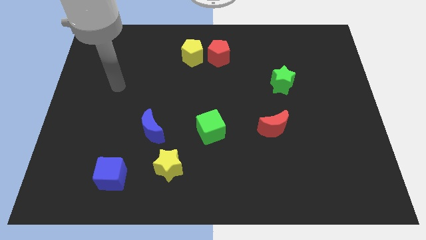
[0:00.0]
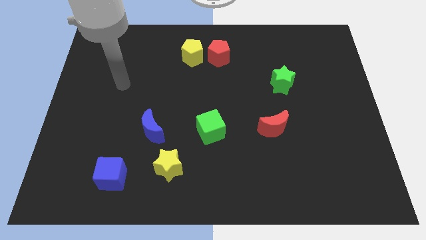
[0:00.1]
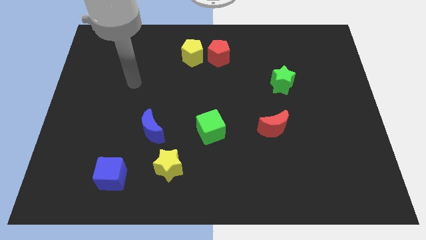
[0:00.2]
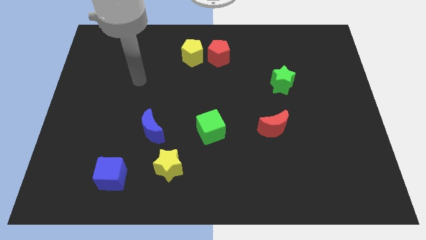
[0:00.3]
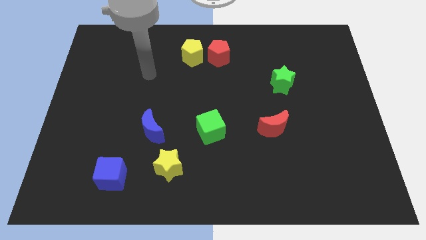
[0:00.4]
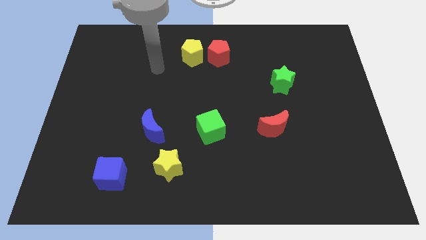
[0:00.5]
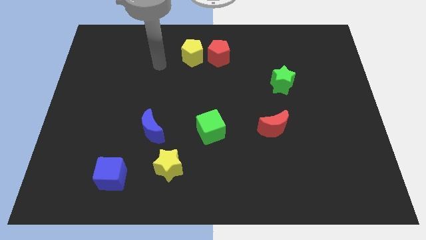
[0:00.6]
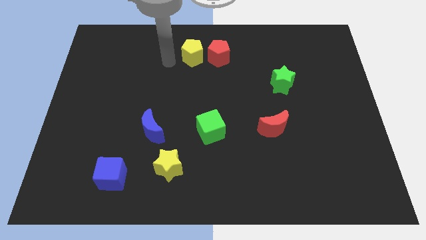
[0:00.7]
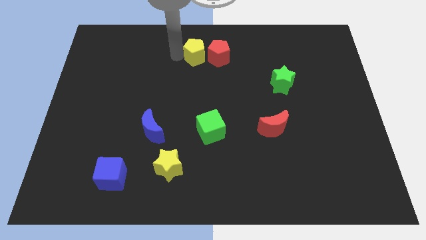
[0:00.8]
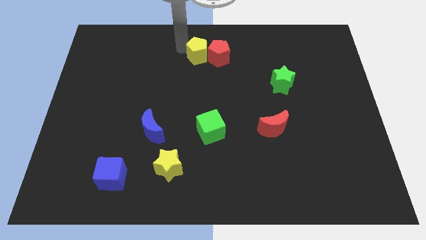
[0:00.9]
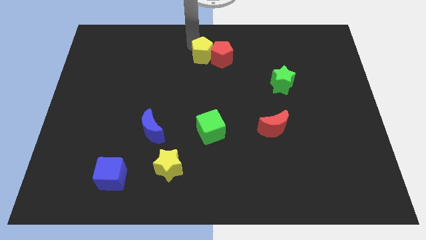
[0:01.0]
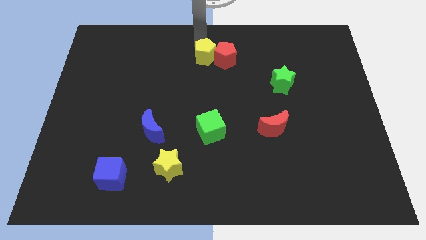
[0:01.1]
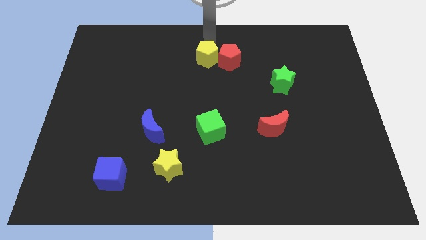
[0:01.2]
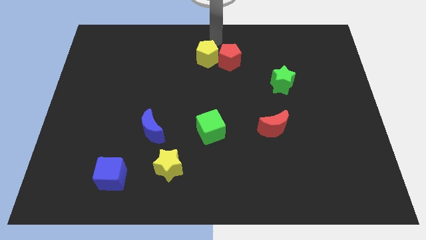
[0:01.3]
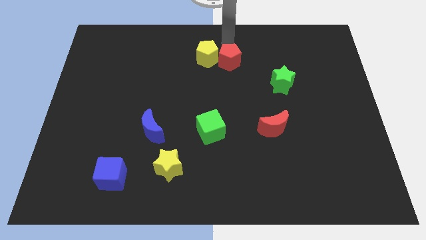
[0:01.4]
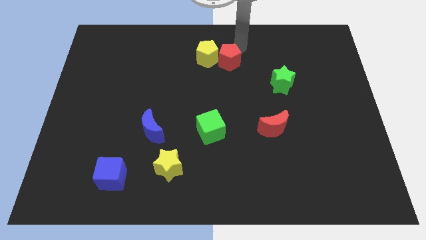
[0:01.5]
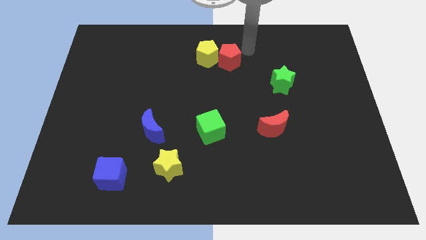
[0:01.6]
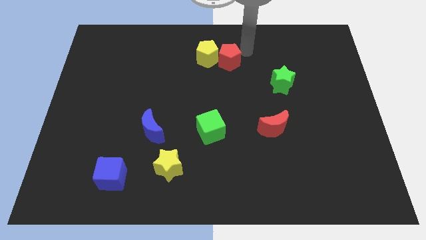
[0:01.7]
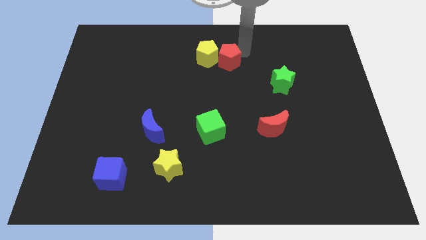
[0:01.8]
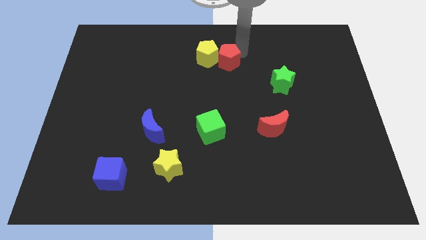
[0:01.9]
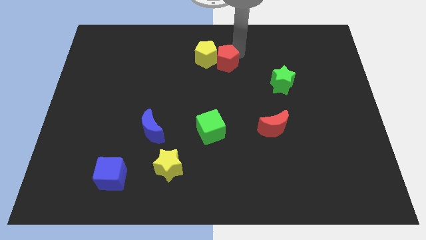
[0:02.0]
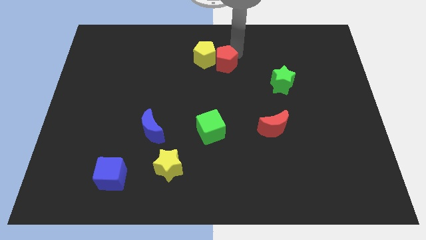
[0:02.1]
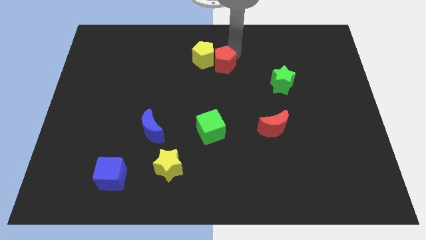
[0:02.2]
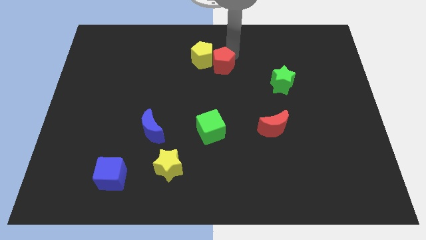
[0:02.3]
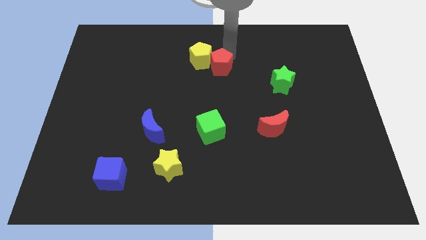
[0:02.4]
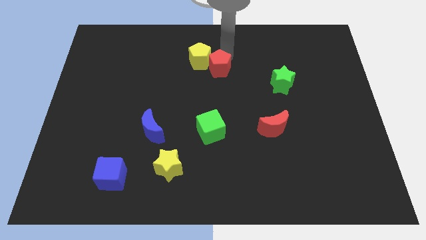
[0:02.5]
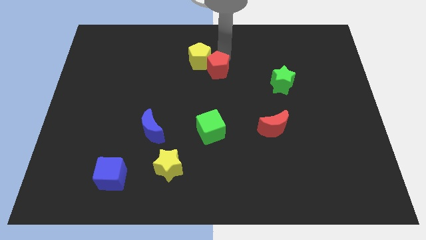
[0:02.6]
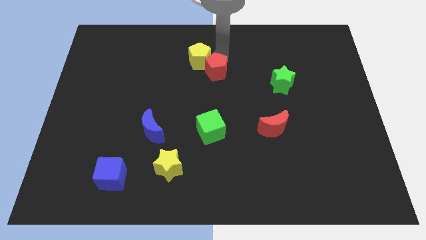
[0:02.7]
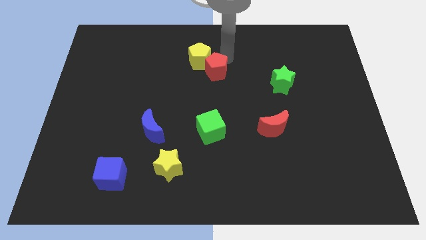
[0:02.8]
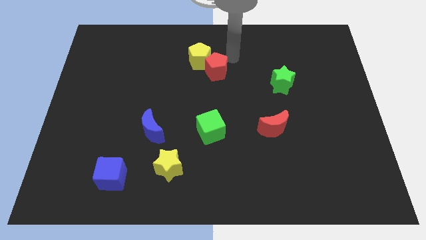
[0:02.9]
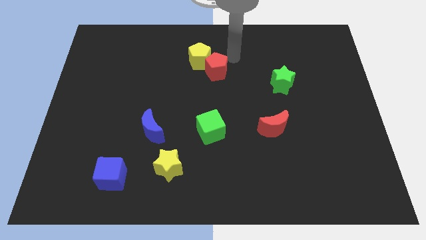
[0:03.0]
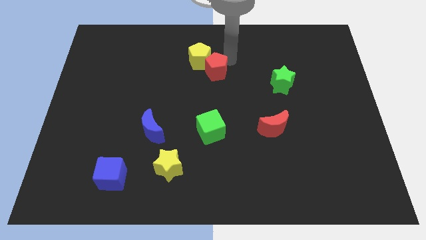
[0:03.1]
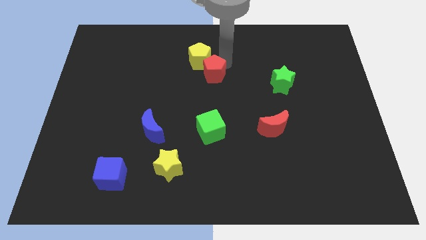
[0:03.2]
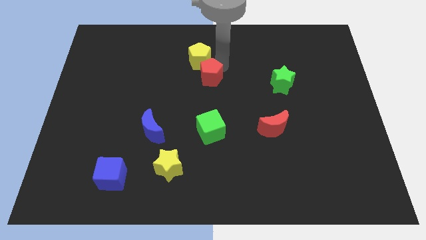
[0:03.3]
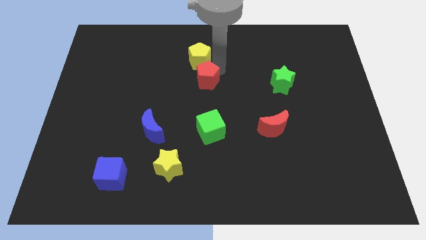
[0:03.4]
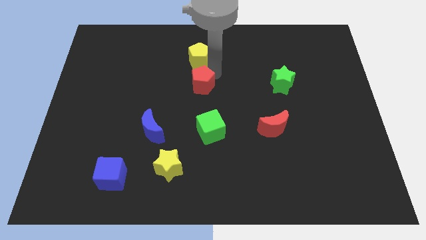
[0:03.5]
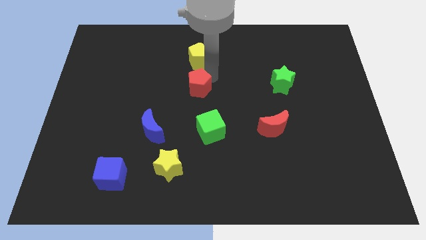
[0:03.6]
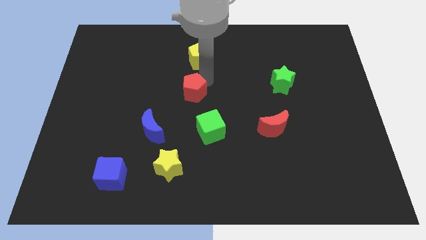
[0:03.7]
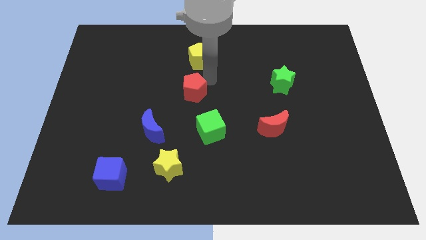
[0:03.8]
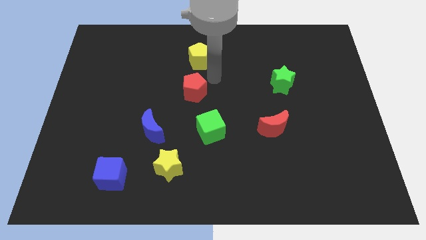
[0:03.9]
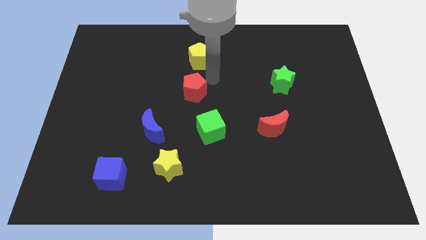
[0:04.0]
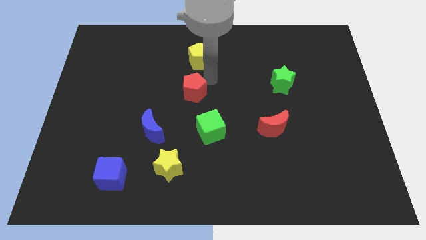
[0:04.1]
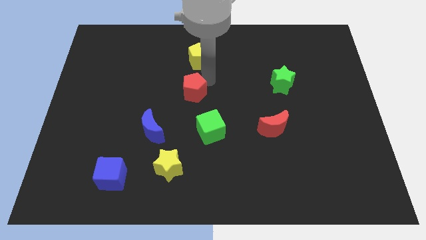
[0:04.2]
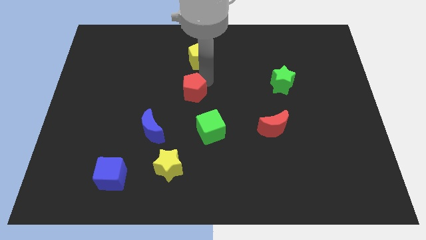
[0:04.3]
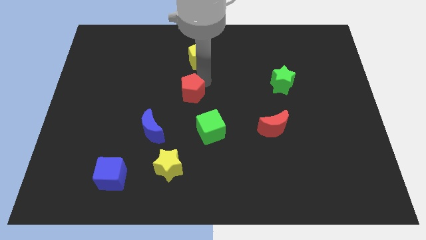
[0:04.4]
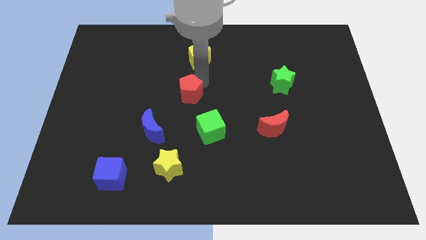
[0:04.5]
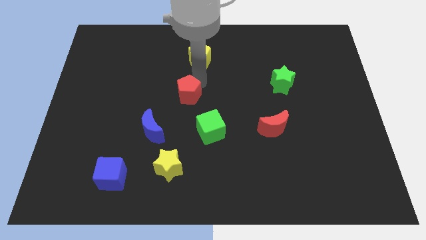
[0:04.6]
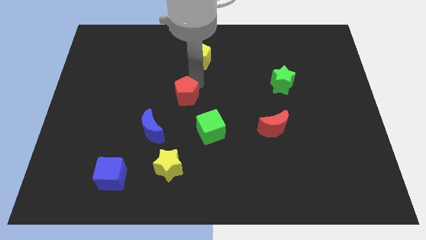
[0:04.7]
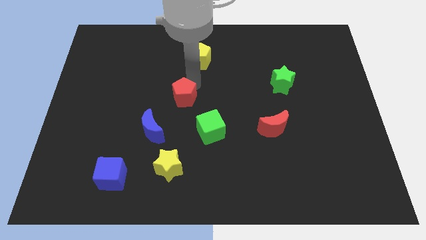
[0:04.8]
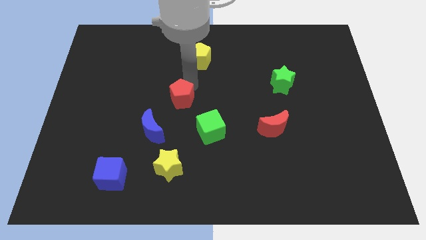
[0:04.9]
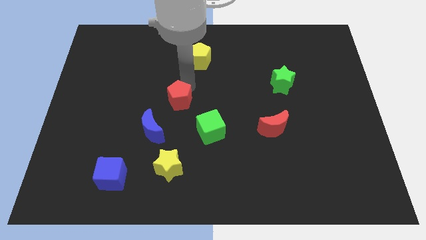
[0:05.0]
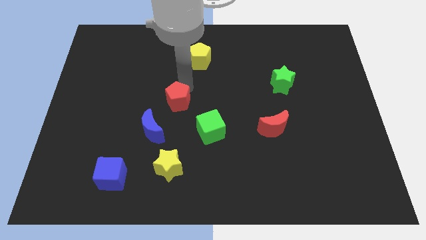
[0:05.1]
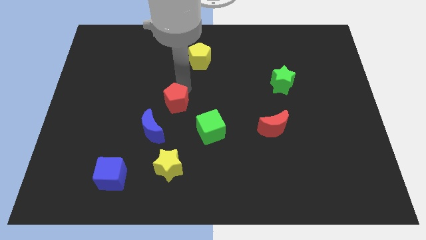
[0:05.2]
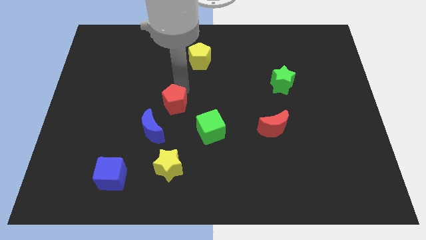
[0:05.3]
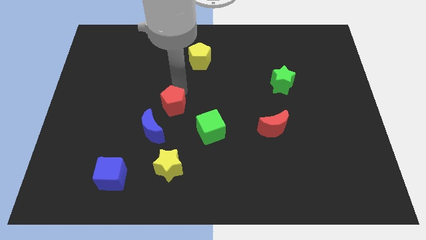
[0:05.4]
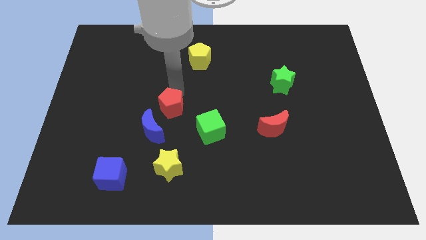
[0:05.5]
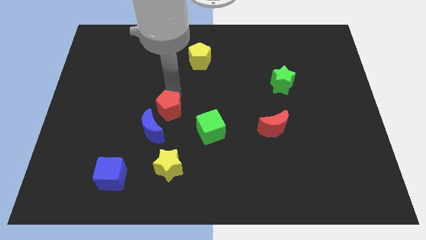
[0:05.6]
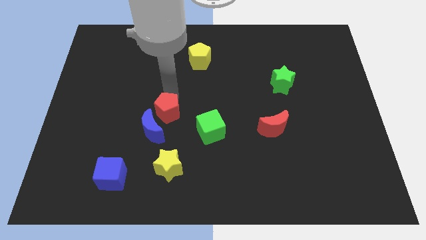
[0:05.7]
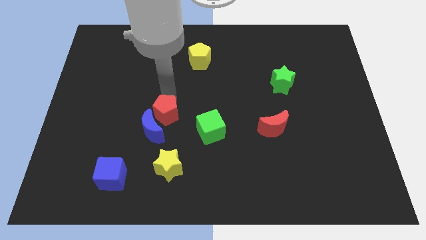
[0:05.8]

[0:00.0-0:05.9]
push the red pentagon towards the blue moon

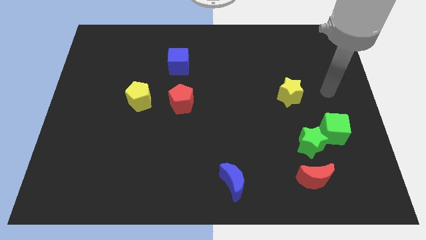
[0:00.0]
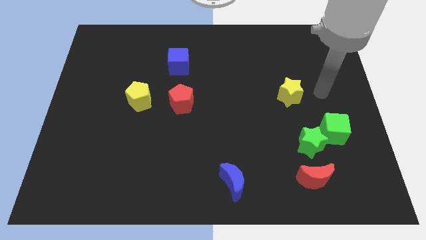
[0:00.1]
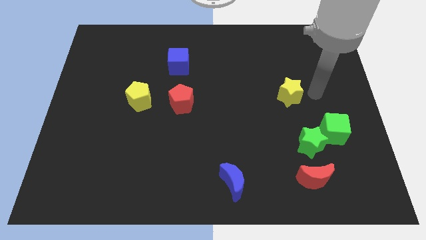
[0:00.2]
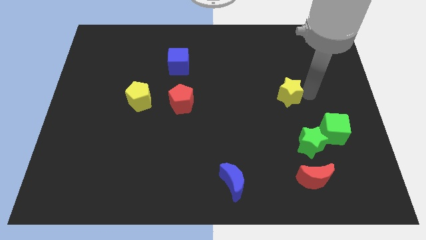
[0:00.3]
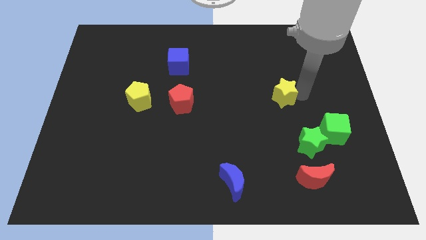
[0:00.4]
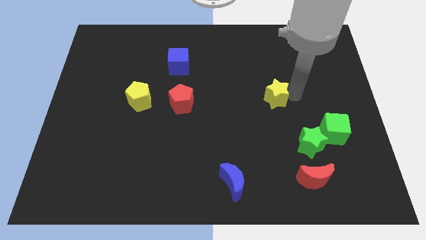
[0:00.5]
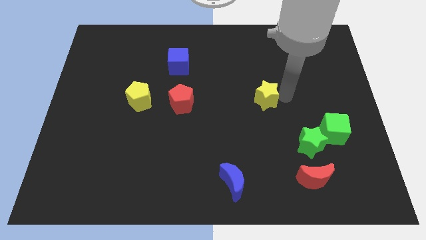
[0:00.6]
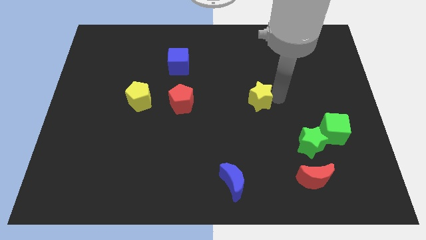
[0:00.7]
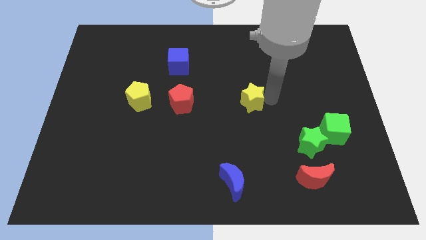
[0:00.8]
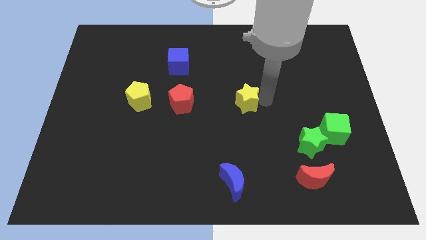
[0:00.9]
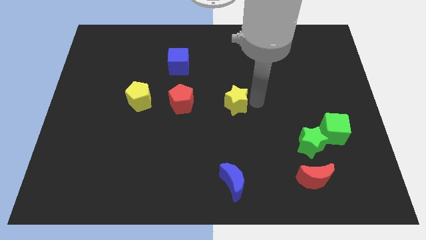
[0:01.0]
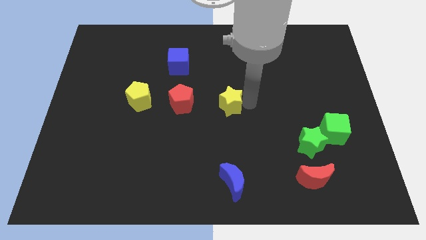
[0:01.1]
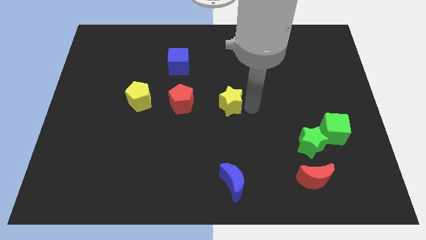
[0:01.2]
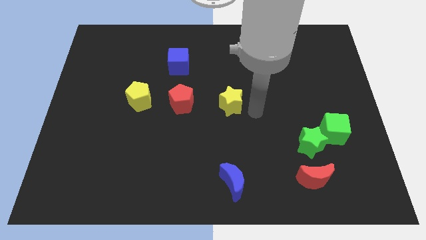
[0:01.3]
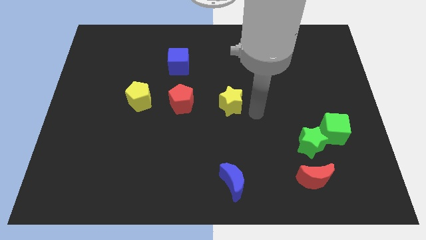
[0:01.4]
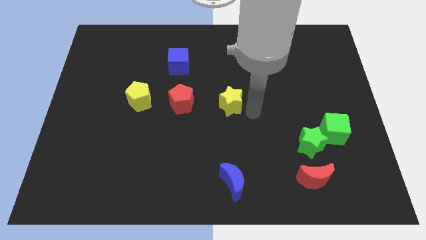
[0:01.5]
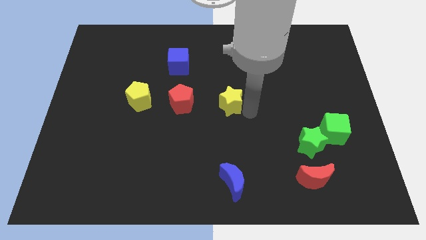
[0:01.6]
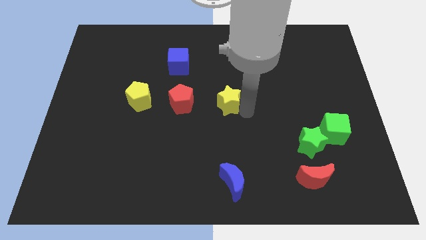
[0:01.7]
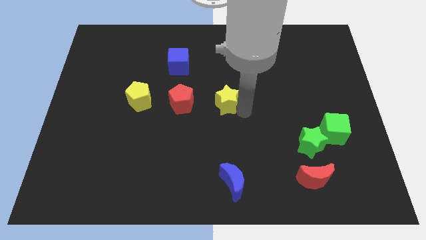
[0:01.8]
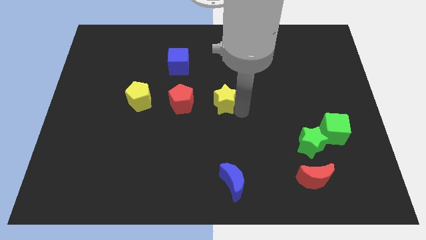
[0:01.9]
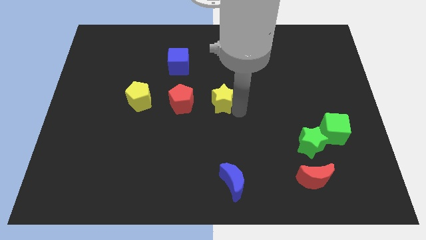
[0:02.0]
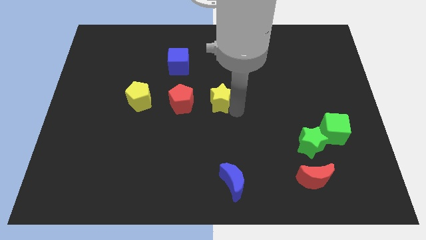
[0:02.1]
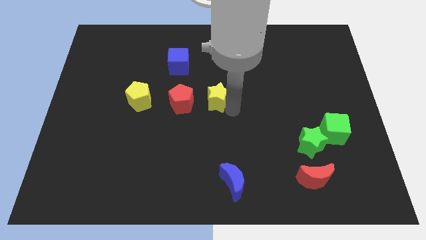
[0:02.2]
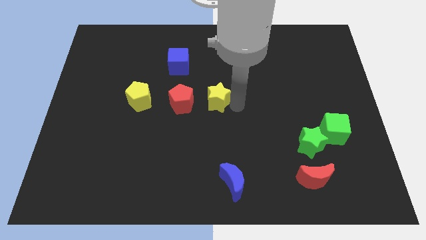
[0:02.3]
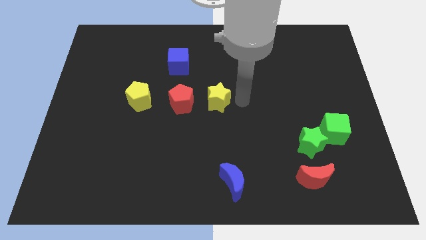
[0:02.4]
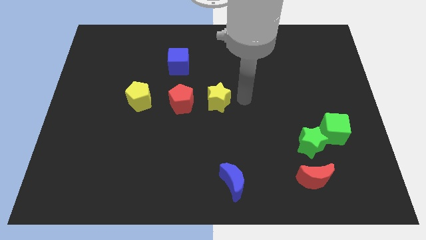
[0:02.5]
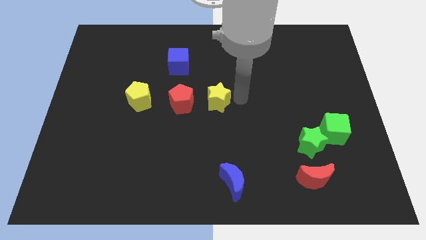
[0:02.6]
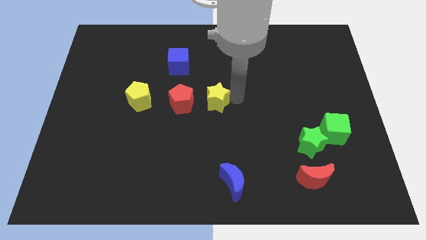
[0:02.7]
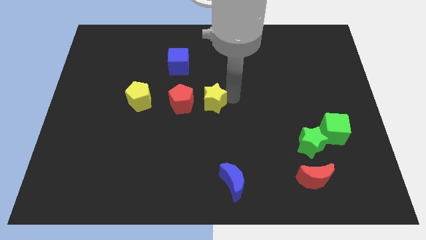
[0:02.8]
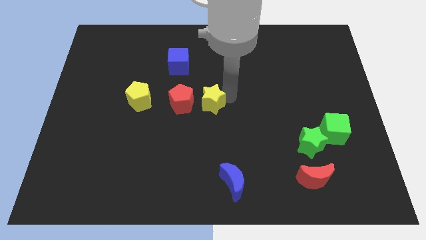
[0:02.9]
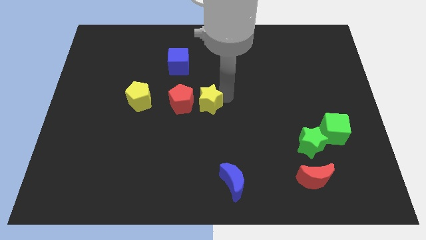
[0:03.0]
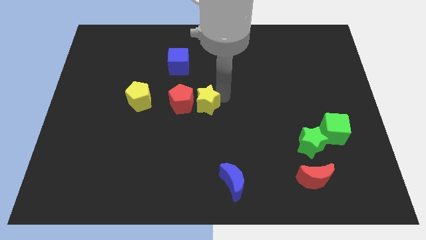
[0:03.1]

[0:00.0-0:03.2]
slide the yellow star close to the red pentagon
